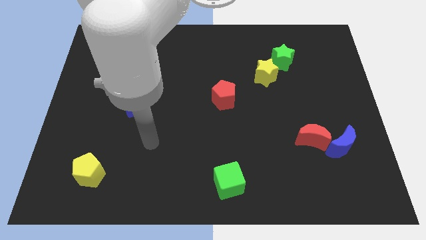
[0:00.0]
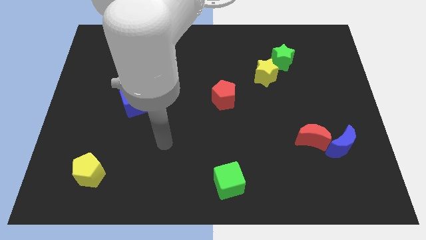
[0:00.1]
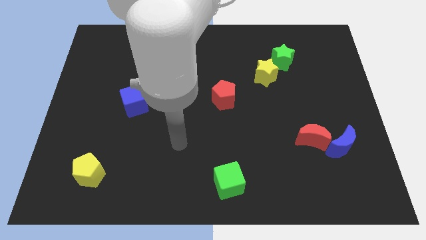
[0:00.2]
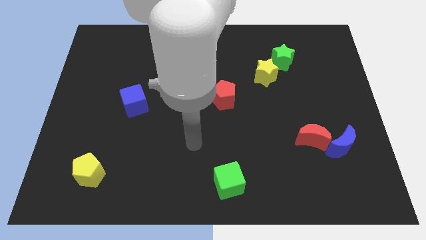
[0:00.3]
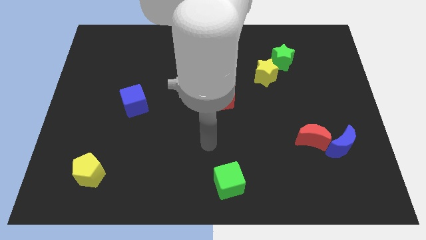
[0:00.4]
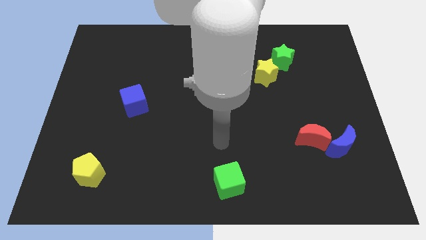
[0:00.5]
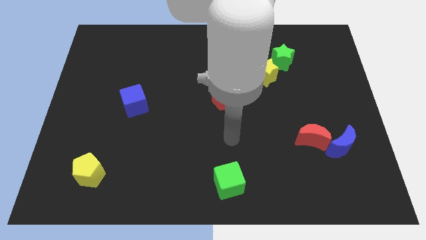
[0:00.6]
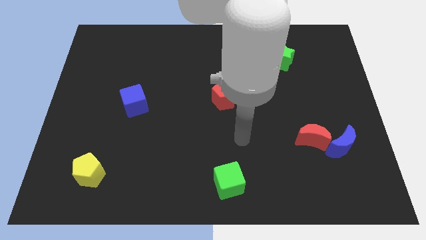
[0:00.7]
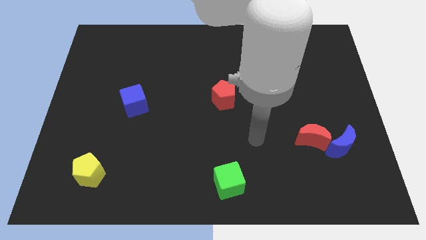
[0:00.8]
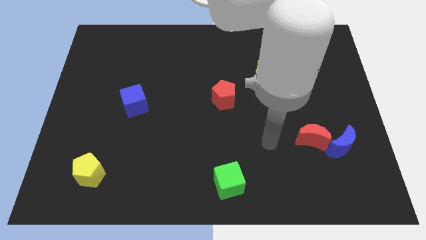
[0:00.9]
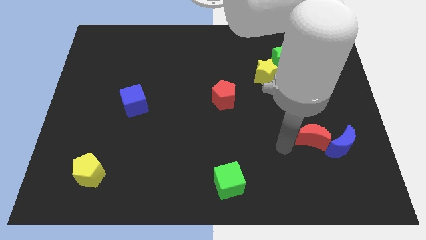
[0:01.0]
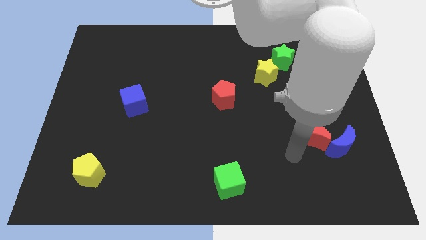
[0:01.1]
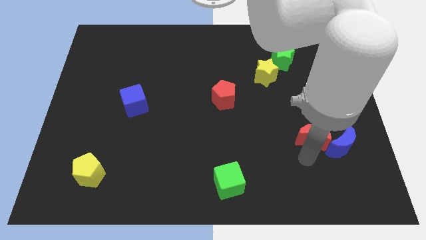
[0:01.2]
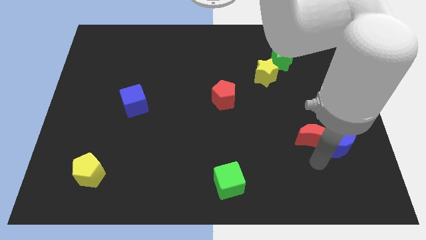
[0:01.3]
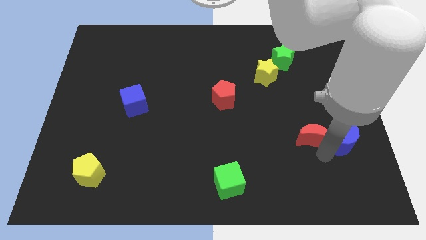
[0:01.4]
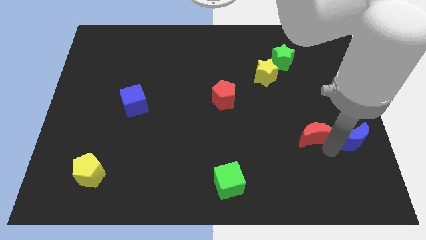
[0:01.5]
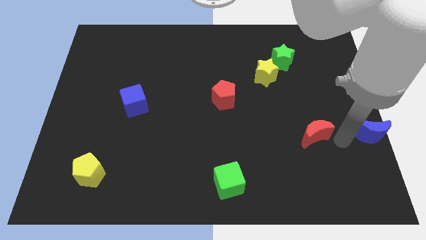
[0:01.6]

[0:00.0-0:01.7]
move the red moon away from the blue moon

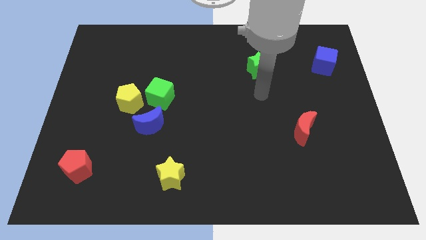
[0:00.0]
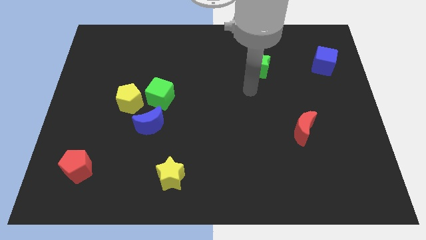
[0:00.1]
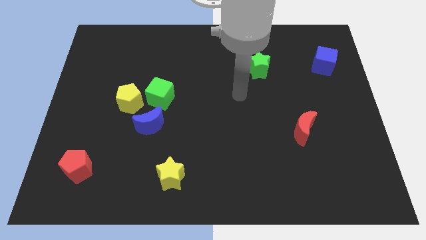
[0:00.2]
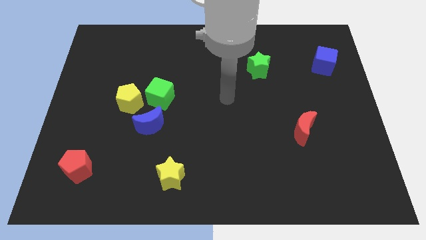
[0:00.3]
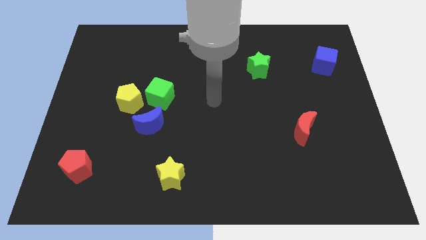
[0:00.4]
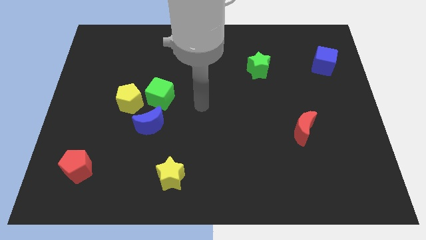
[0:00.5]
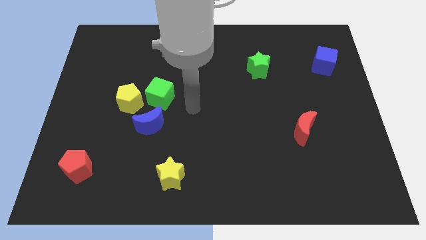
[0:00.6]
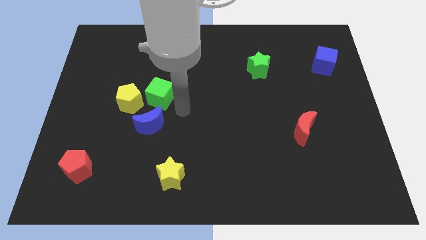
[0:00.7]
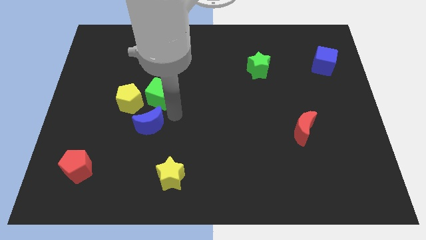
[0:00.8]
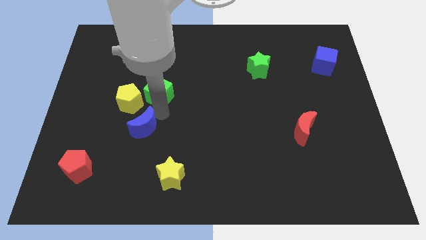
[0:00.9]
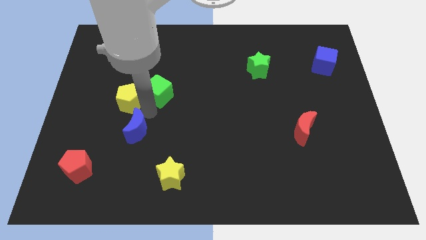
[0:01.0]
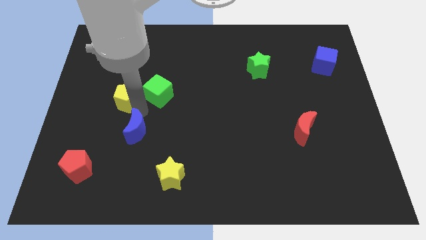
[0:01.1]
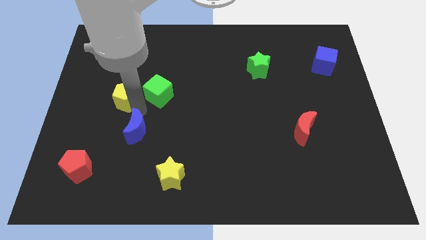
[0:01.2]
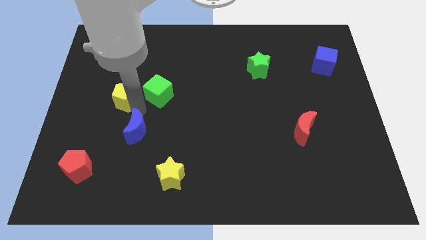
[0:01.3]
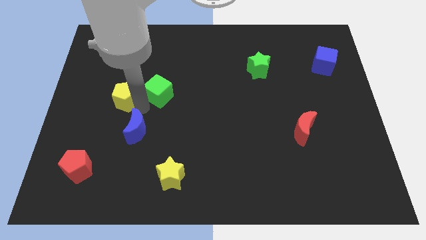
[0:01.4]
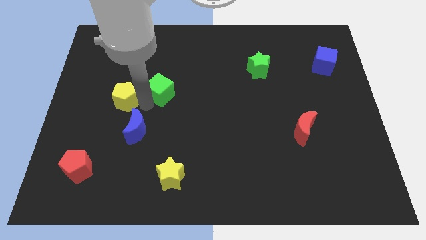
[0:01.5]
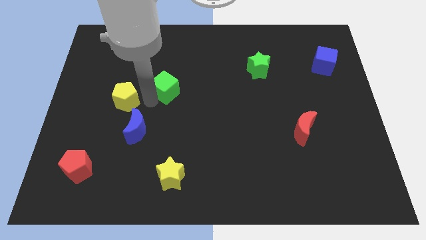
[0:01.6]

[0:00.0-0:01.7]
separate the green cube from the yellow pentagon and blue moon

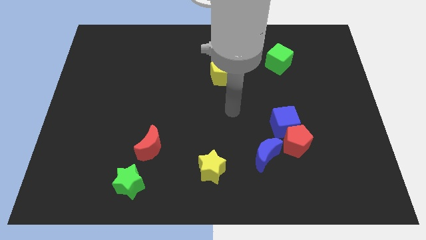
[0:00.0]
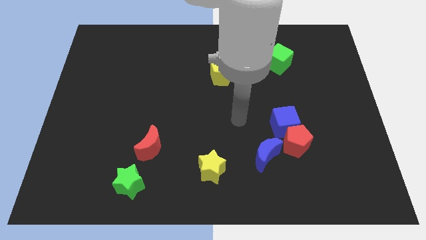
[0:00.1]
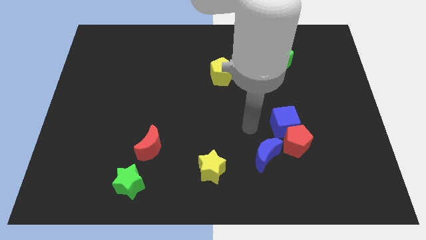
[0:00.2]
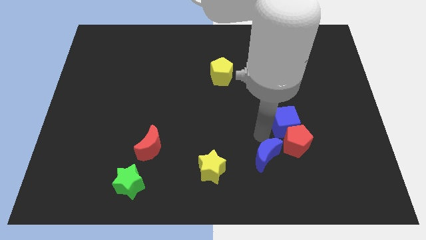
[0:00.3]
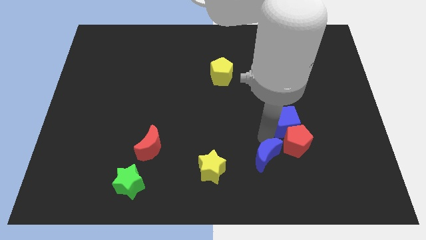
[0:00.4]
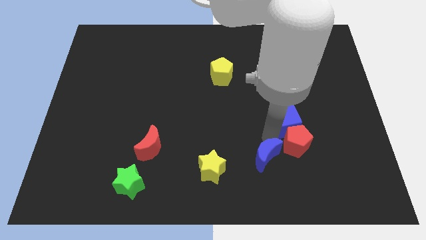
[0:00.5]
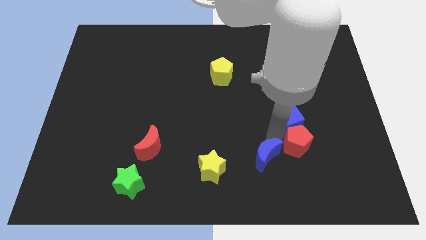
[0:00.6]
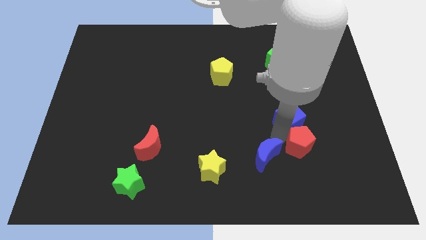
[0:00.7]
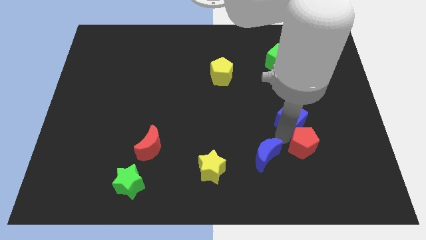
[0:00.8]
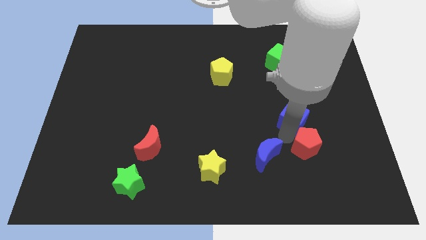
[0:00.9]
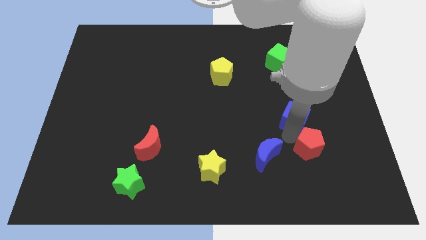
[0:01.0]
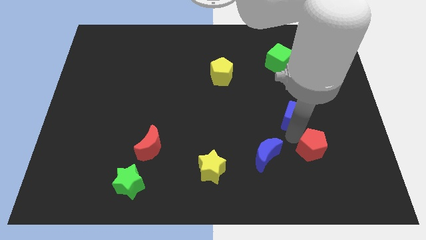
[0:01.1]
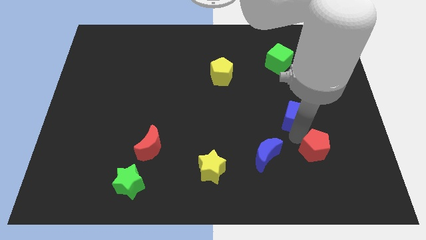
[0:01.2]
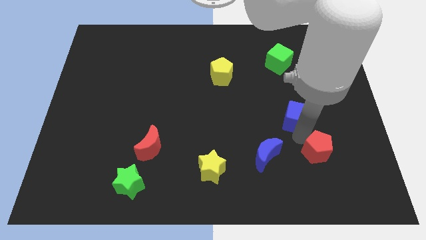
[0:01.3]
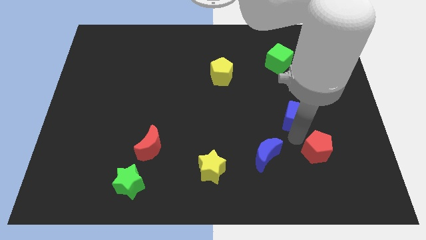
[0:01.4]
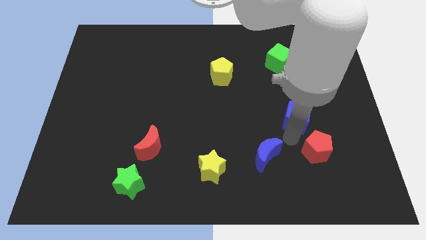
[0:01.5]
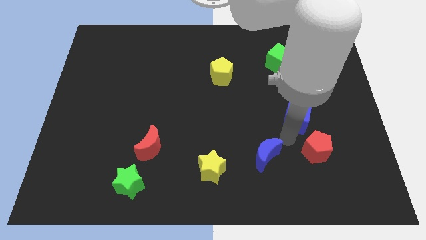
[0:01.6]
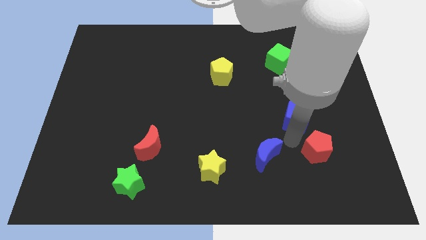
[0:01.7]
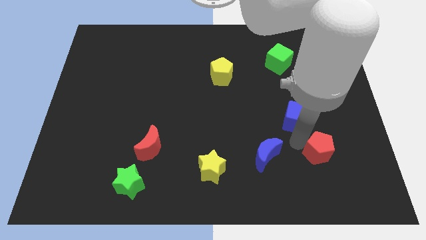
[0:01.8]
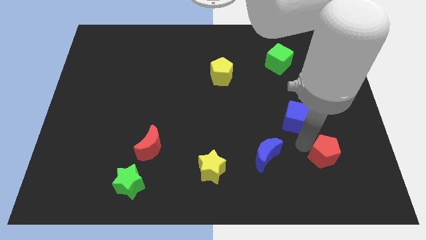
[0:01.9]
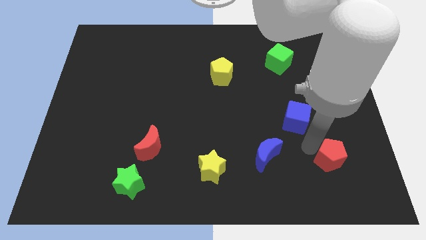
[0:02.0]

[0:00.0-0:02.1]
move the red pentagon away from the blue cube and blue moon

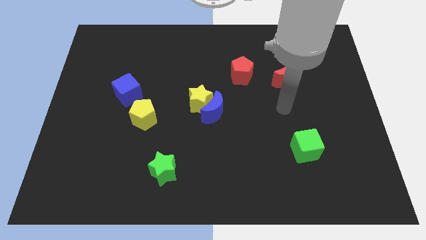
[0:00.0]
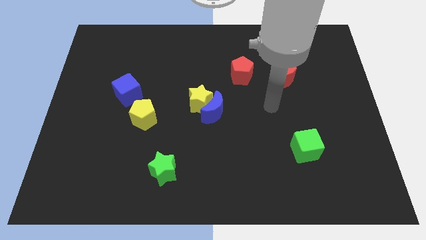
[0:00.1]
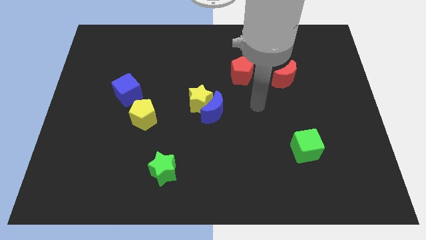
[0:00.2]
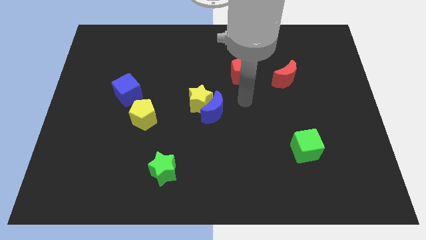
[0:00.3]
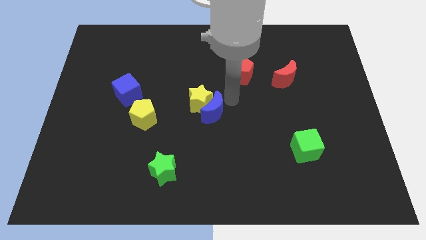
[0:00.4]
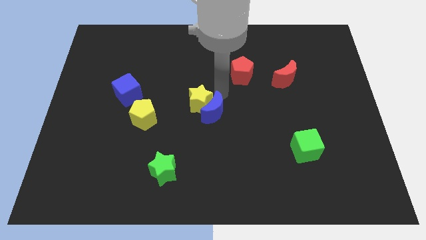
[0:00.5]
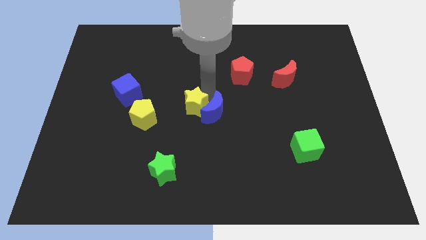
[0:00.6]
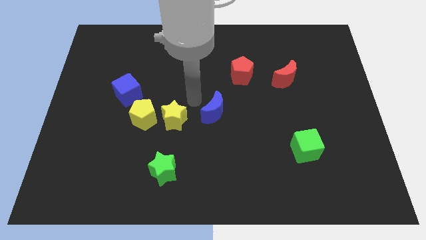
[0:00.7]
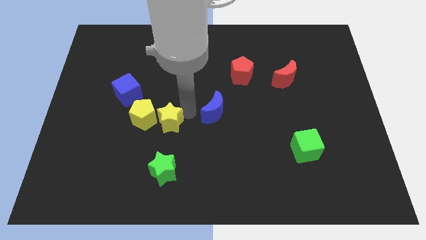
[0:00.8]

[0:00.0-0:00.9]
separate the blue moon from the yellow star

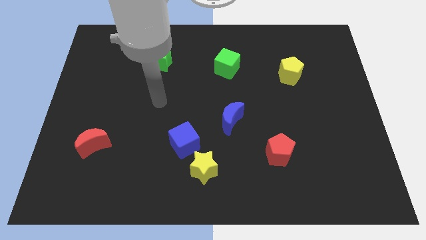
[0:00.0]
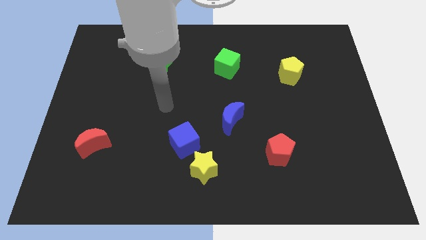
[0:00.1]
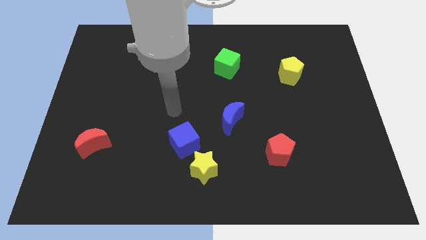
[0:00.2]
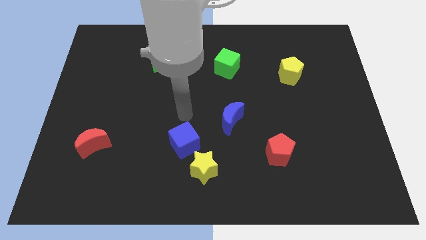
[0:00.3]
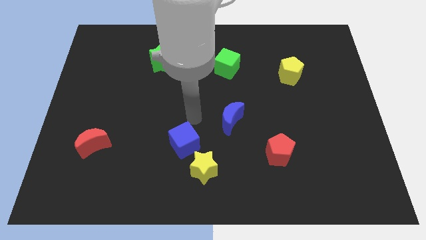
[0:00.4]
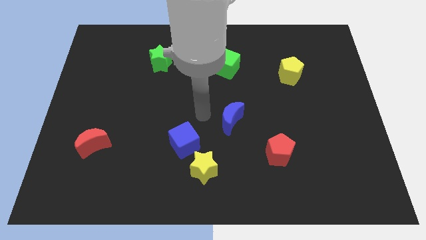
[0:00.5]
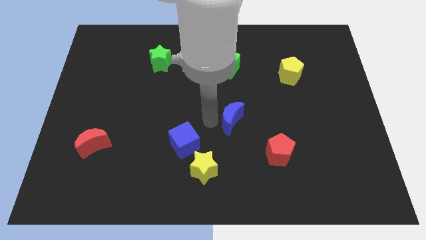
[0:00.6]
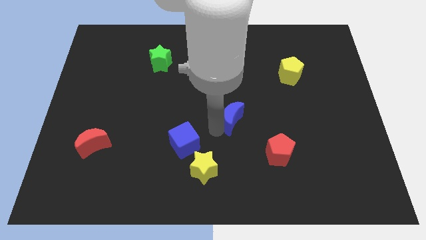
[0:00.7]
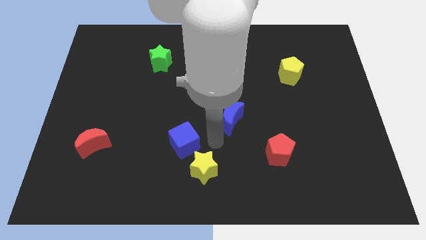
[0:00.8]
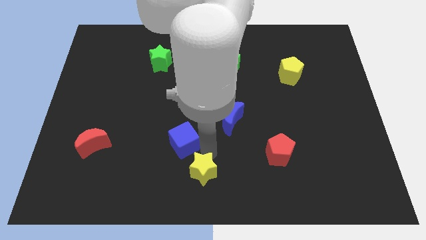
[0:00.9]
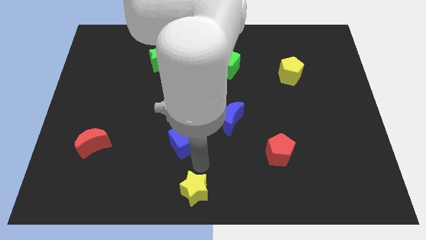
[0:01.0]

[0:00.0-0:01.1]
separate the blue cube from the yellow star

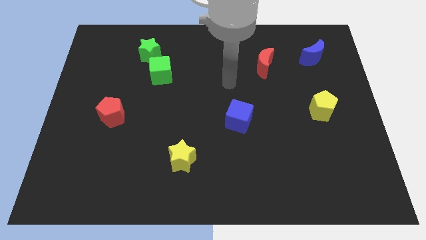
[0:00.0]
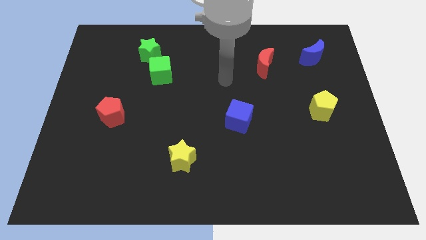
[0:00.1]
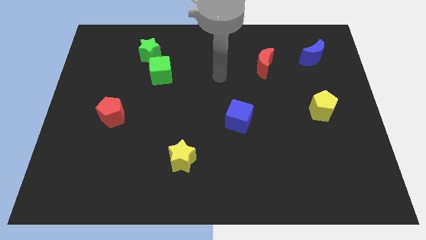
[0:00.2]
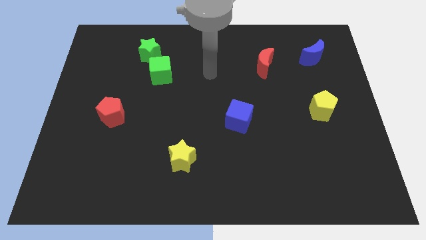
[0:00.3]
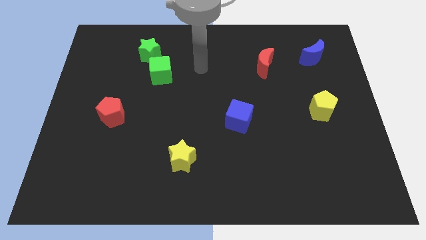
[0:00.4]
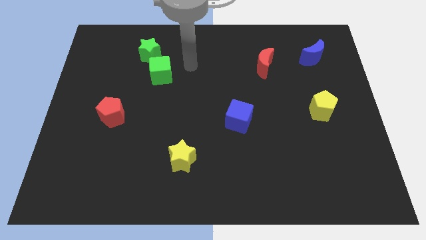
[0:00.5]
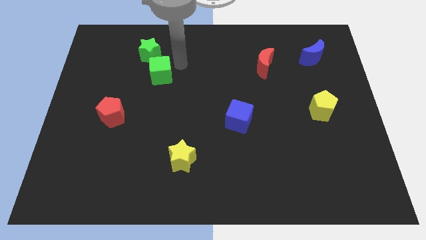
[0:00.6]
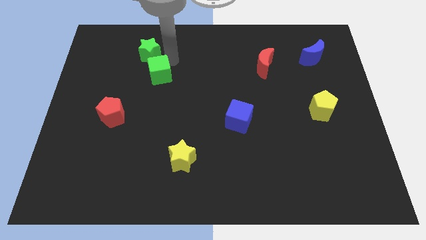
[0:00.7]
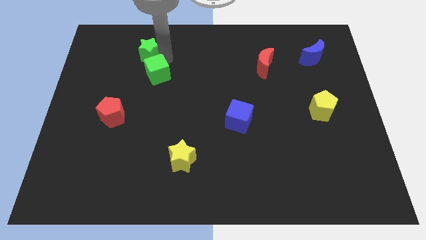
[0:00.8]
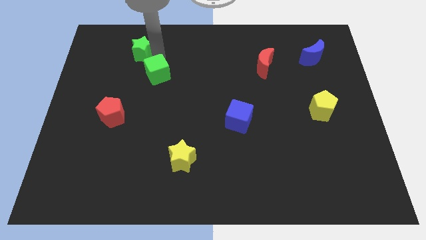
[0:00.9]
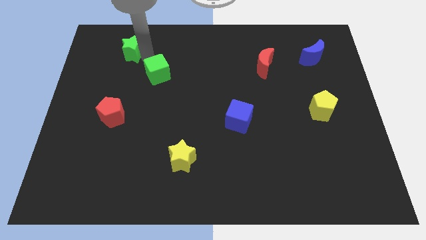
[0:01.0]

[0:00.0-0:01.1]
separate the green cube from the green star

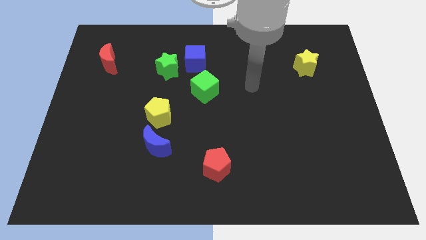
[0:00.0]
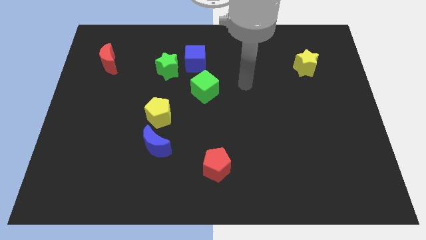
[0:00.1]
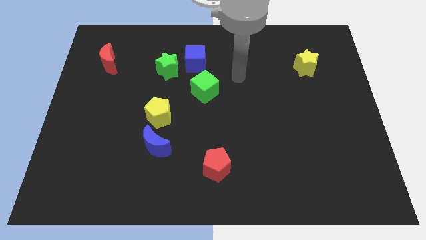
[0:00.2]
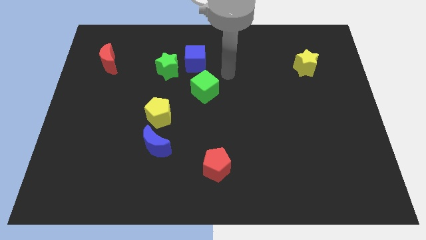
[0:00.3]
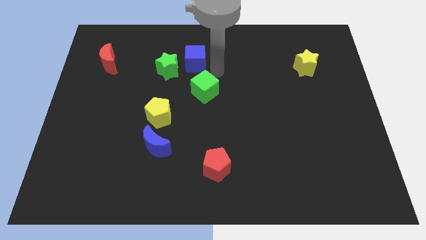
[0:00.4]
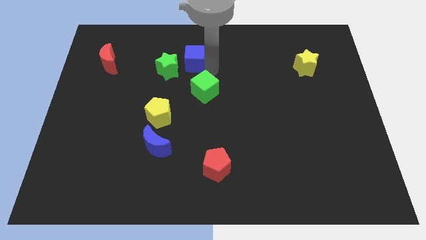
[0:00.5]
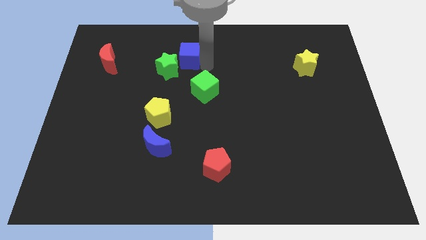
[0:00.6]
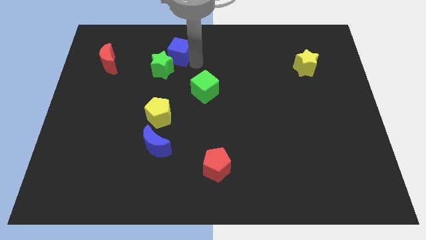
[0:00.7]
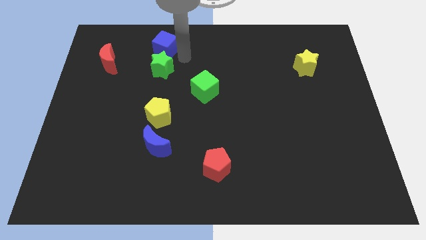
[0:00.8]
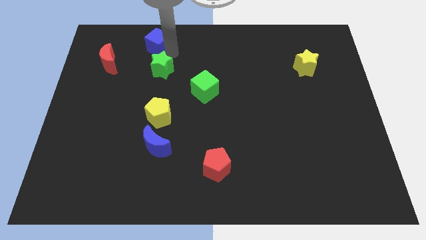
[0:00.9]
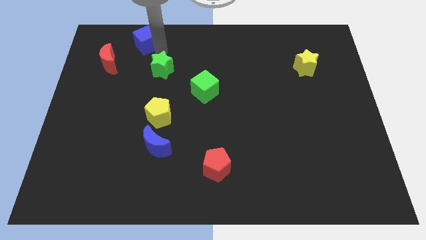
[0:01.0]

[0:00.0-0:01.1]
move the green star away from the blue cube
